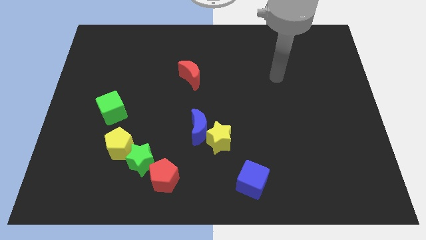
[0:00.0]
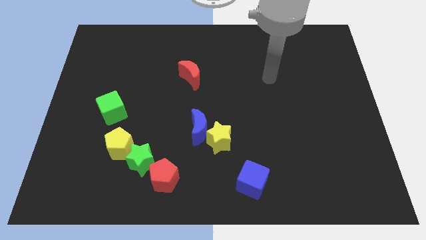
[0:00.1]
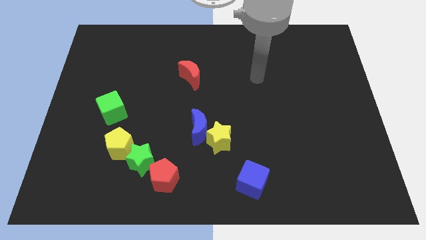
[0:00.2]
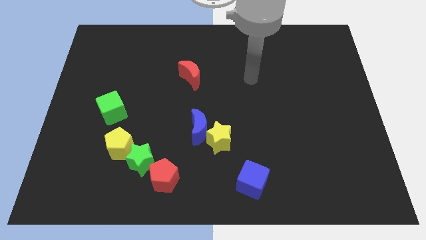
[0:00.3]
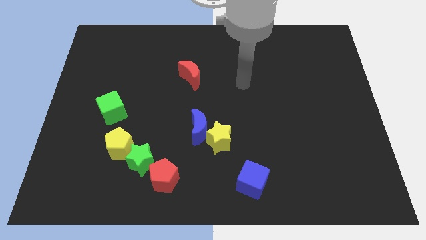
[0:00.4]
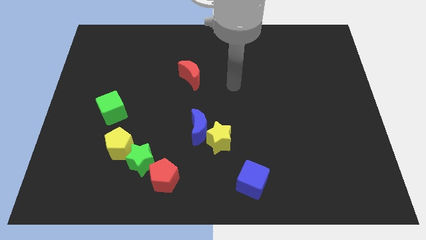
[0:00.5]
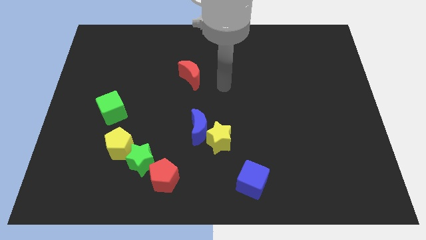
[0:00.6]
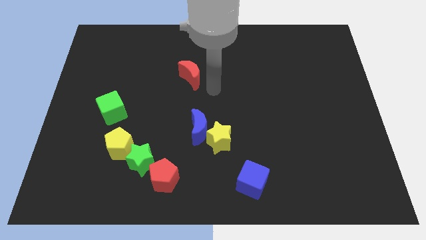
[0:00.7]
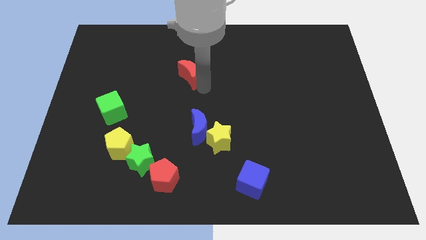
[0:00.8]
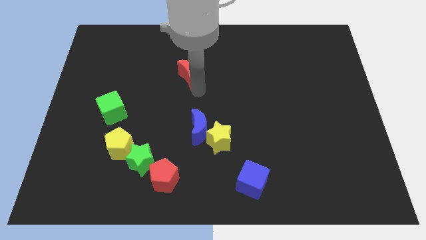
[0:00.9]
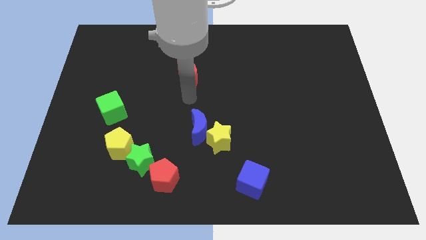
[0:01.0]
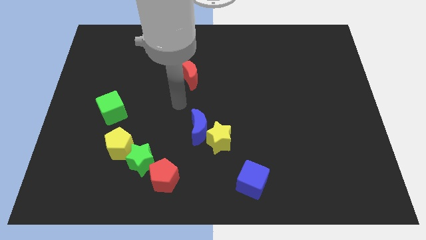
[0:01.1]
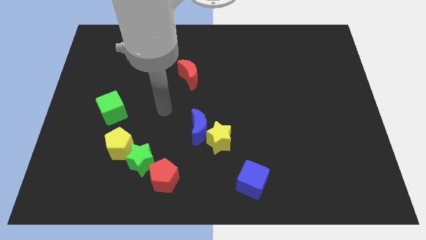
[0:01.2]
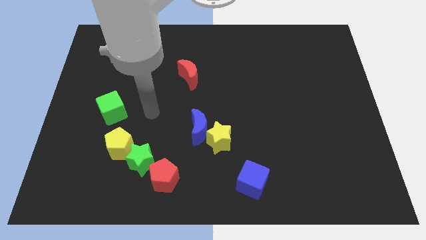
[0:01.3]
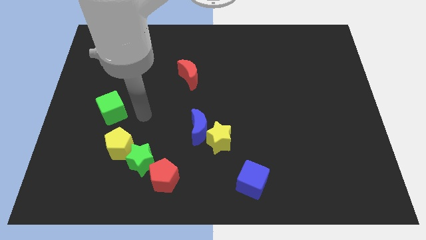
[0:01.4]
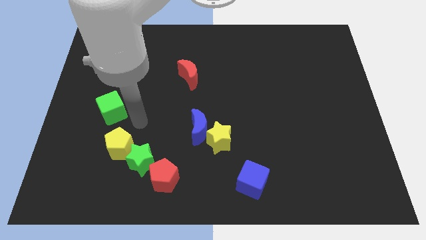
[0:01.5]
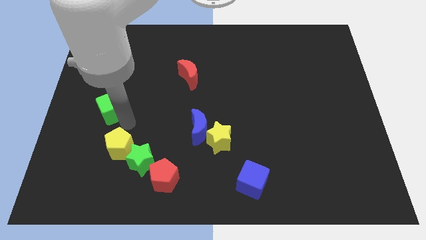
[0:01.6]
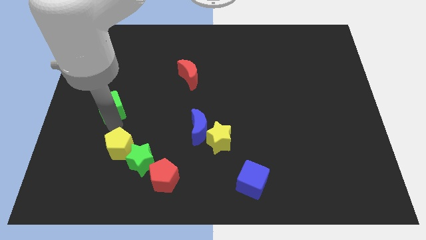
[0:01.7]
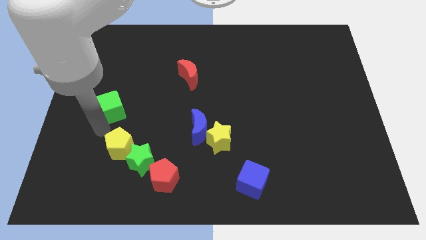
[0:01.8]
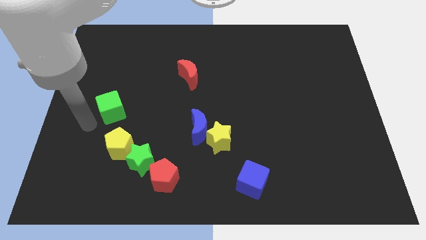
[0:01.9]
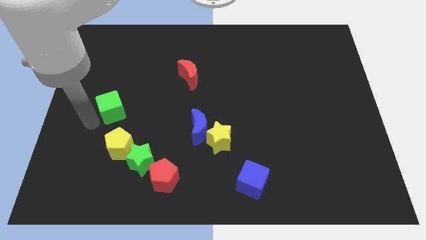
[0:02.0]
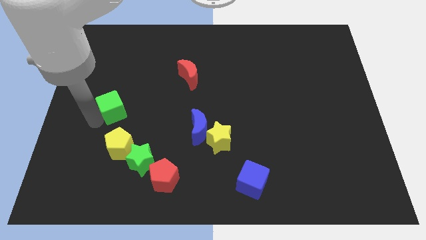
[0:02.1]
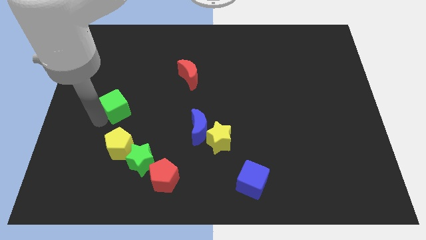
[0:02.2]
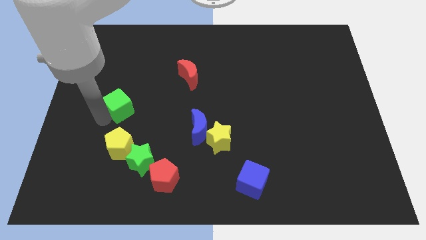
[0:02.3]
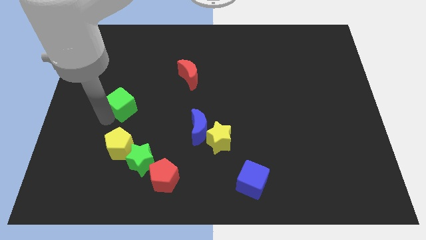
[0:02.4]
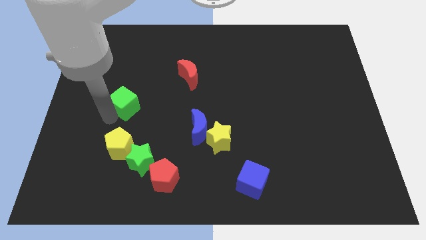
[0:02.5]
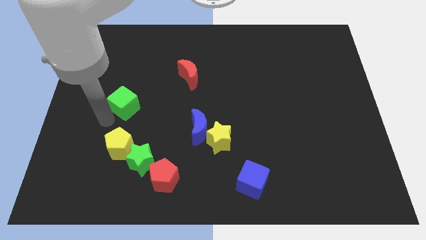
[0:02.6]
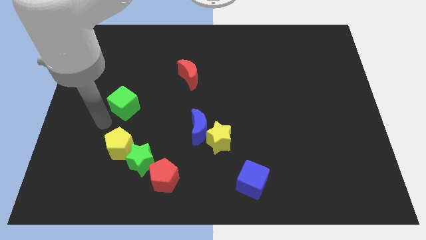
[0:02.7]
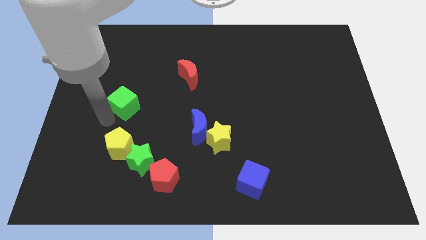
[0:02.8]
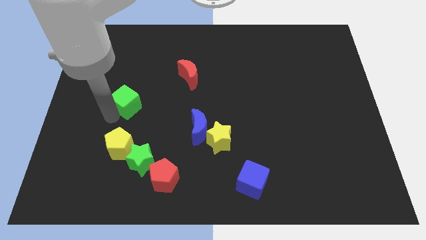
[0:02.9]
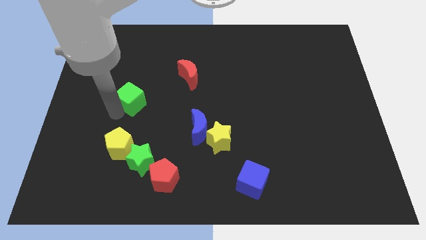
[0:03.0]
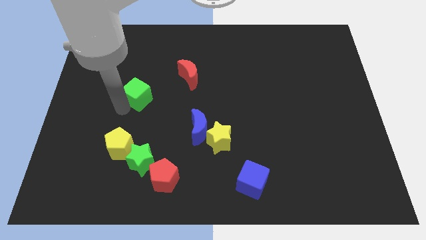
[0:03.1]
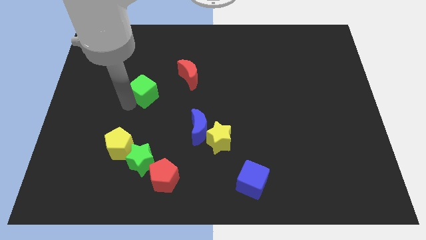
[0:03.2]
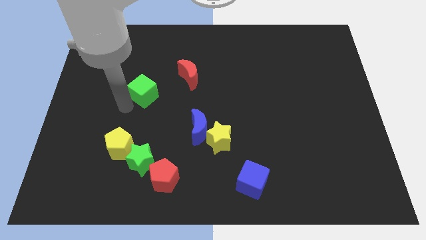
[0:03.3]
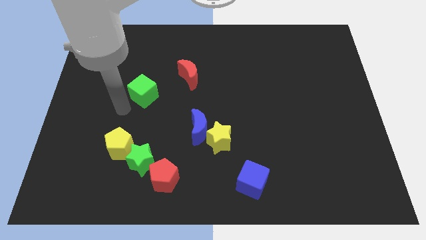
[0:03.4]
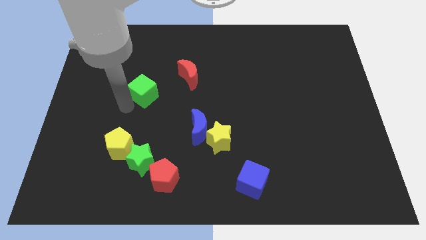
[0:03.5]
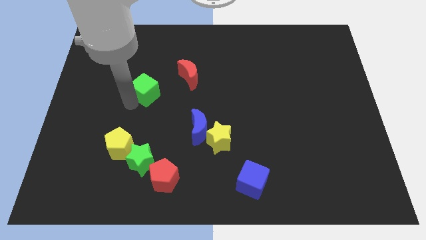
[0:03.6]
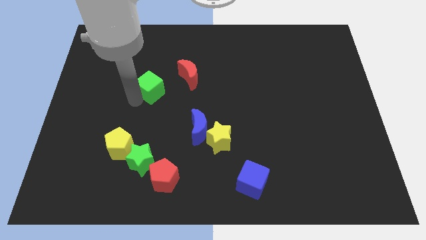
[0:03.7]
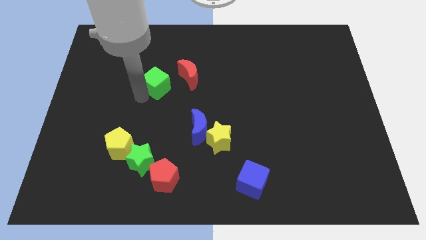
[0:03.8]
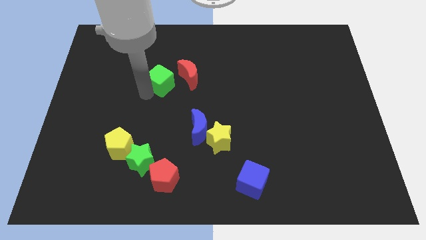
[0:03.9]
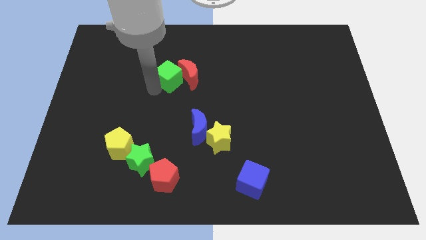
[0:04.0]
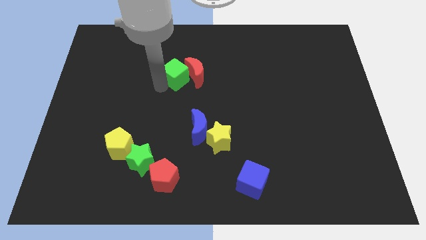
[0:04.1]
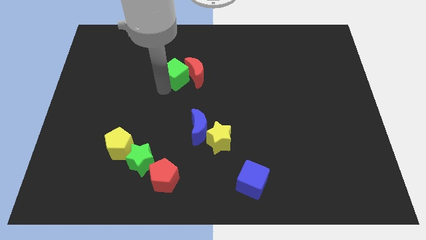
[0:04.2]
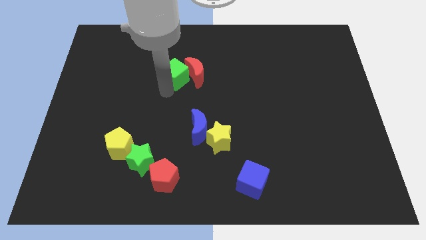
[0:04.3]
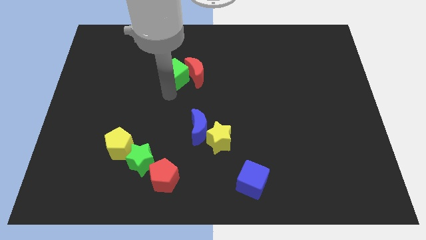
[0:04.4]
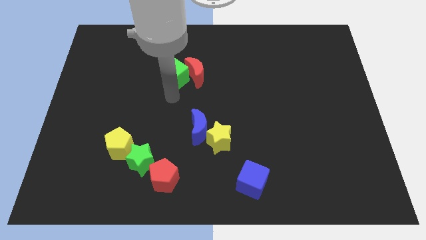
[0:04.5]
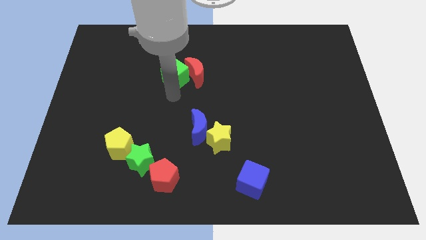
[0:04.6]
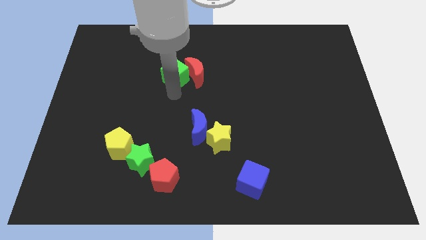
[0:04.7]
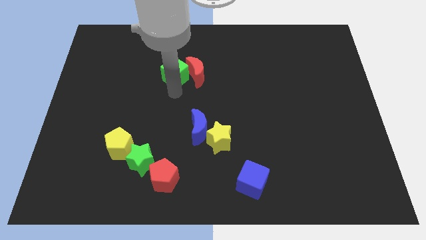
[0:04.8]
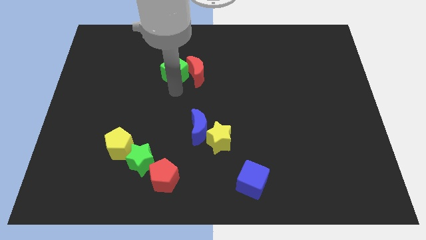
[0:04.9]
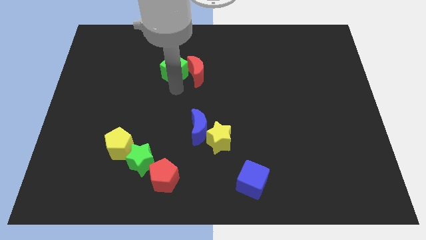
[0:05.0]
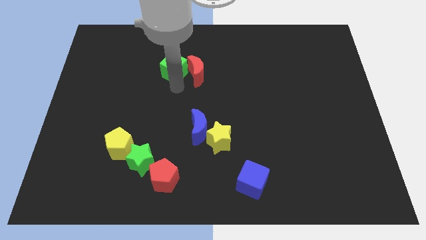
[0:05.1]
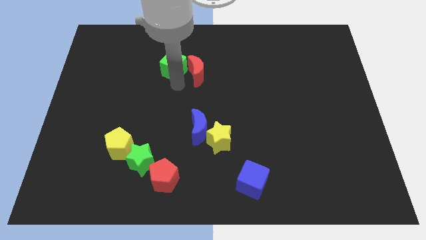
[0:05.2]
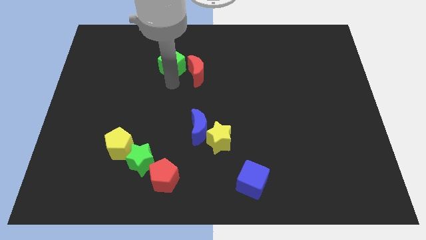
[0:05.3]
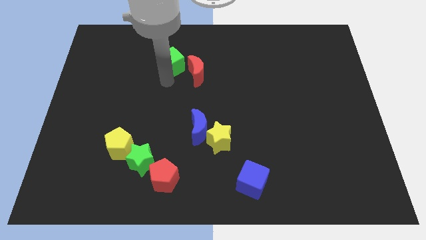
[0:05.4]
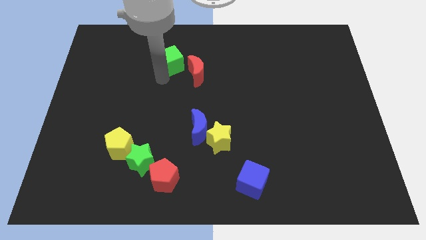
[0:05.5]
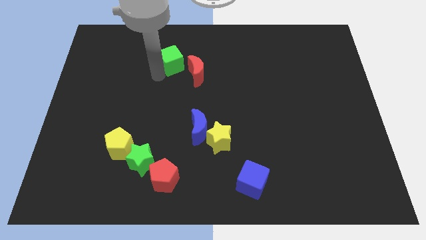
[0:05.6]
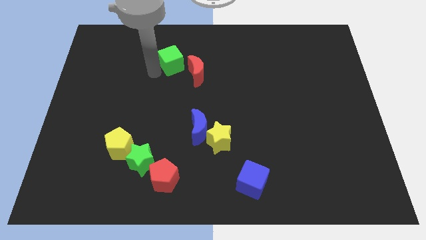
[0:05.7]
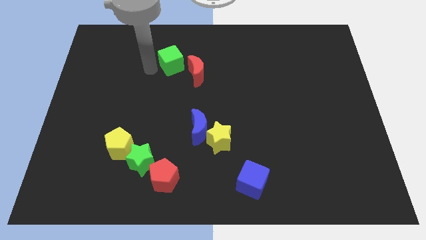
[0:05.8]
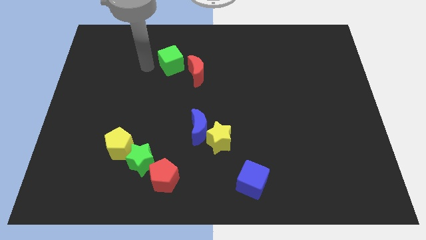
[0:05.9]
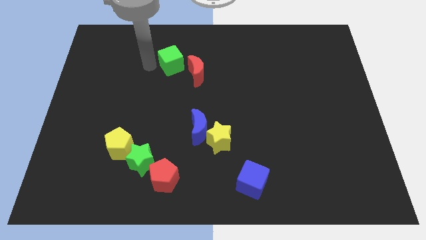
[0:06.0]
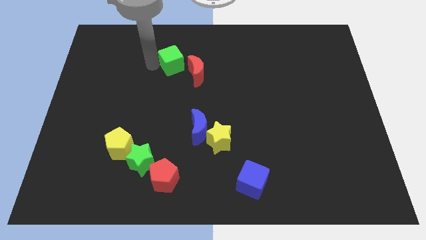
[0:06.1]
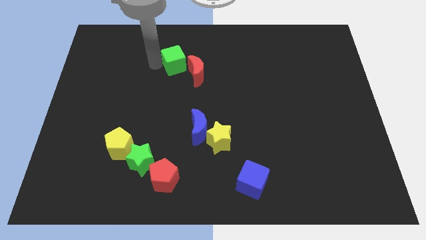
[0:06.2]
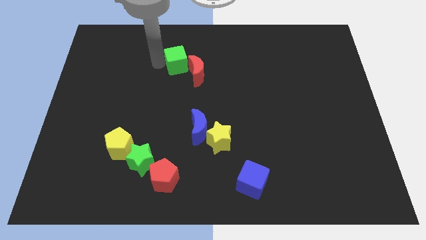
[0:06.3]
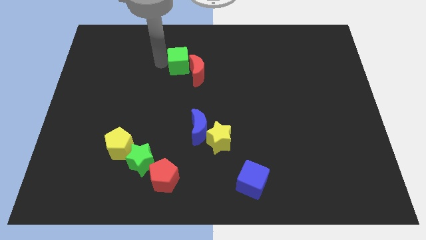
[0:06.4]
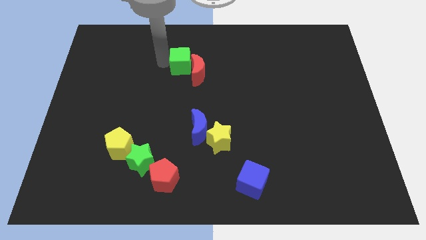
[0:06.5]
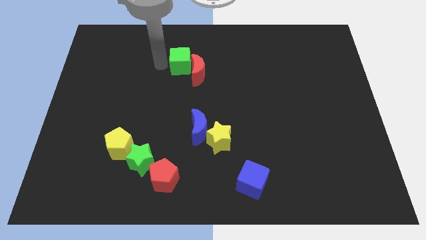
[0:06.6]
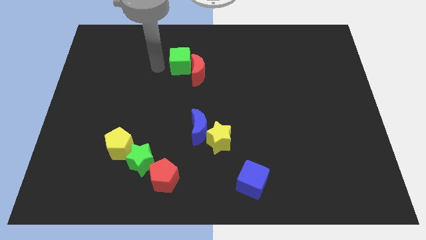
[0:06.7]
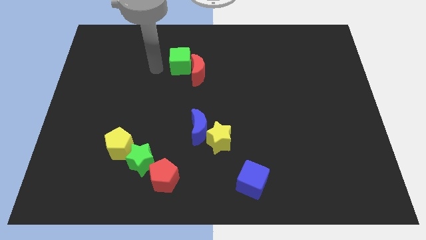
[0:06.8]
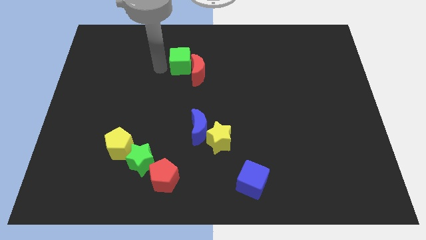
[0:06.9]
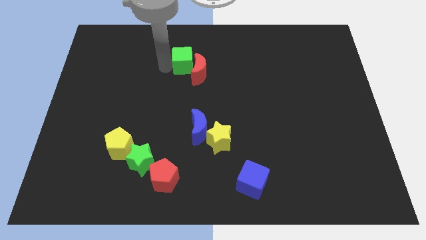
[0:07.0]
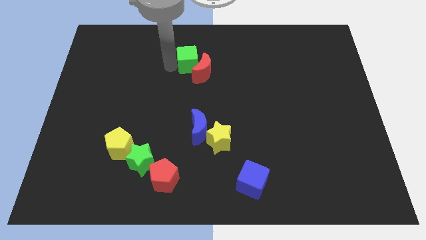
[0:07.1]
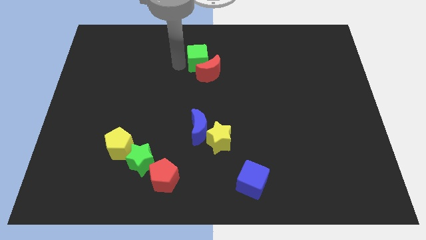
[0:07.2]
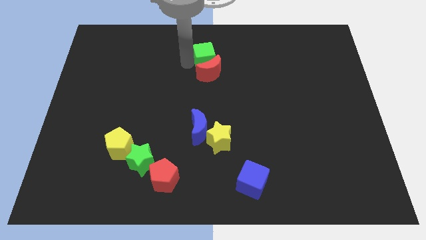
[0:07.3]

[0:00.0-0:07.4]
slide the green cube to the top right of the red moon

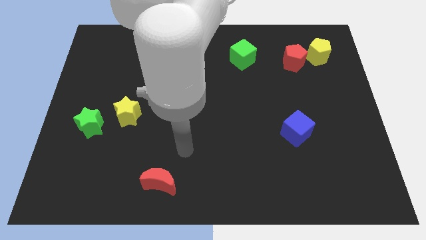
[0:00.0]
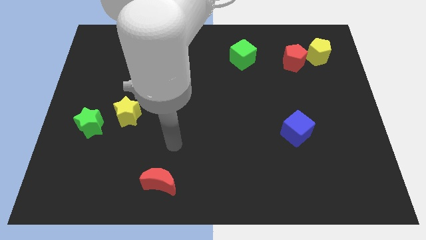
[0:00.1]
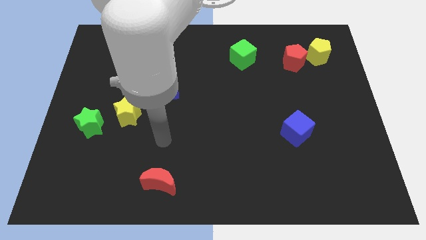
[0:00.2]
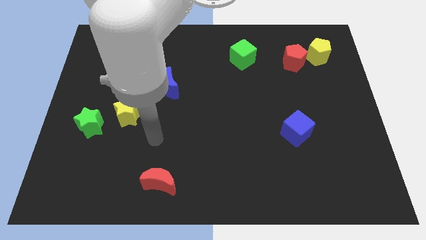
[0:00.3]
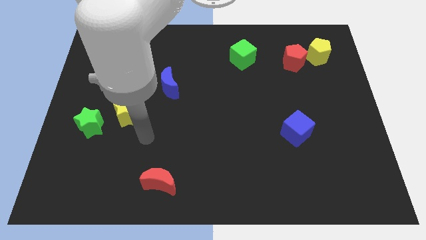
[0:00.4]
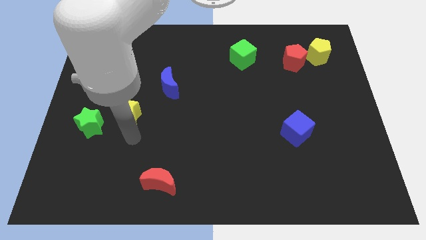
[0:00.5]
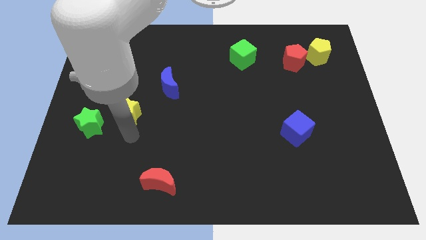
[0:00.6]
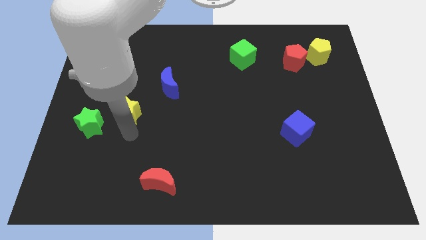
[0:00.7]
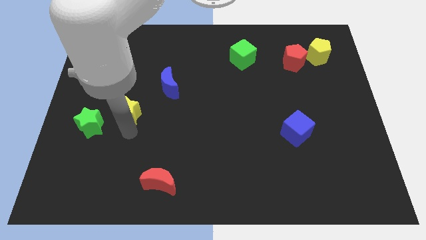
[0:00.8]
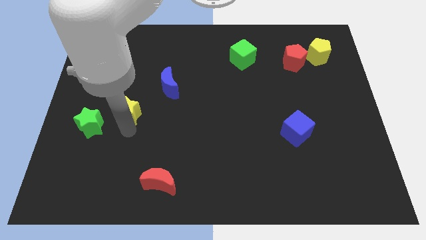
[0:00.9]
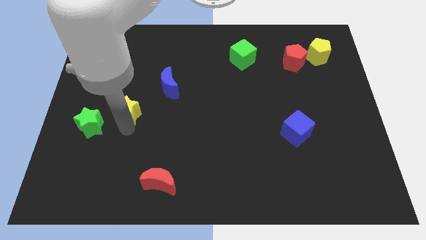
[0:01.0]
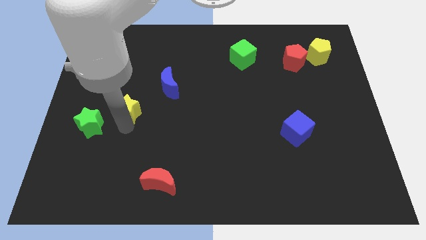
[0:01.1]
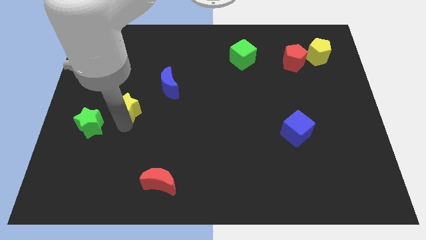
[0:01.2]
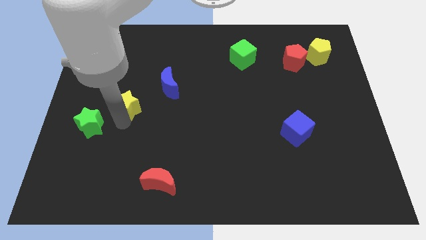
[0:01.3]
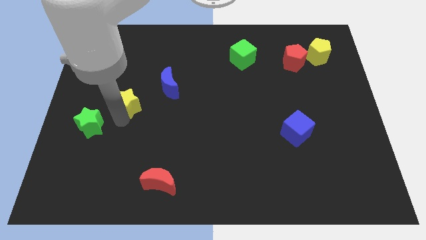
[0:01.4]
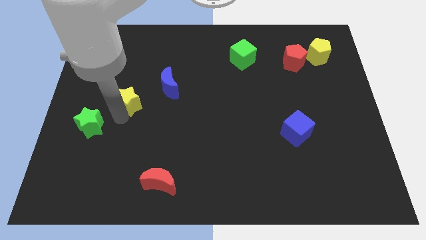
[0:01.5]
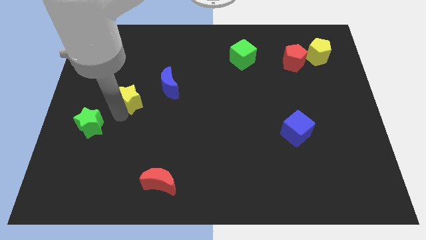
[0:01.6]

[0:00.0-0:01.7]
push the yellow star just left of the blue moon
